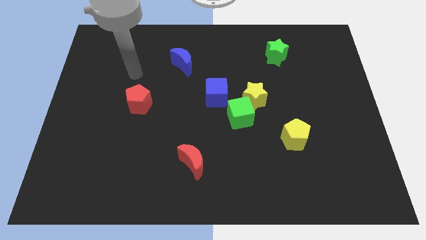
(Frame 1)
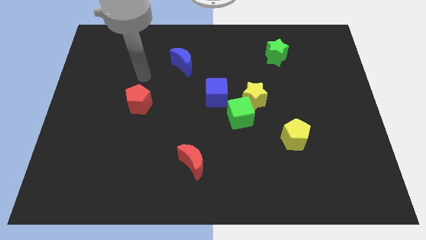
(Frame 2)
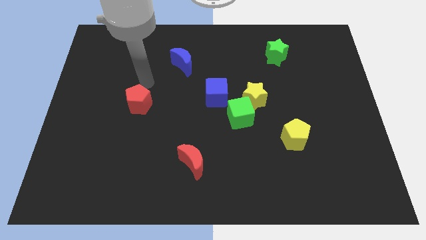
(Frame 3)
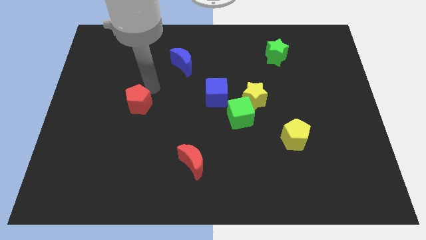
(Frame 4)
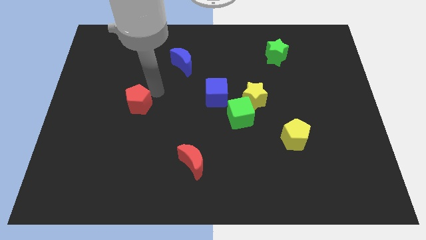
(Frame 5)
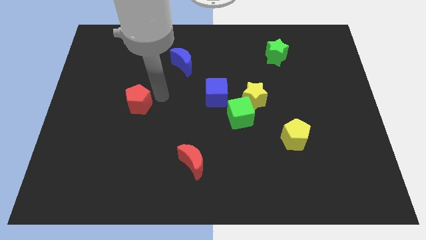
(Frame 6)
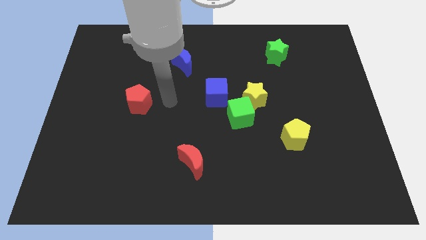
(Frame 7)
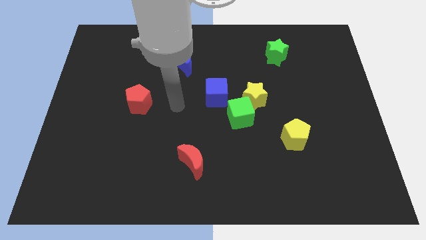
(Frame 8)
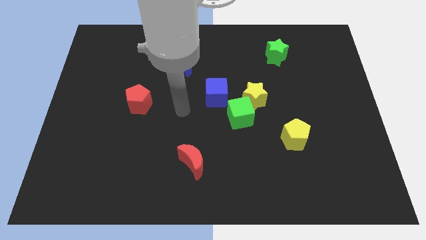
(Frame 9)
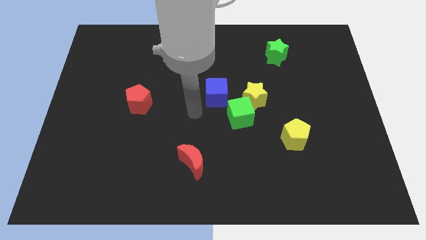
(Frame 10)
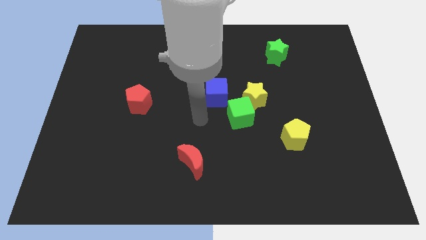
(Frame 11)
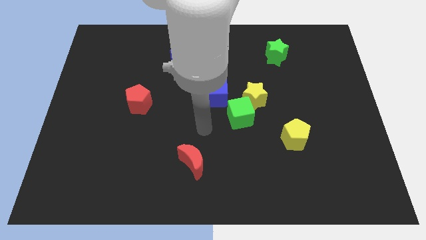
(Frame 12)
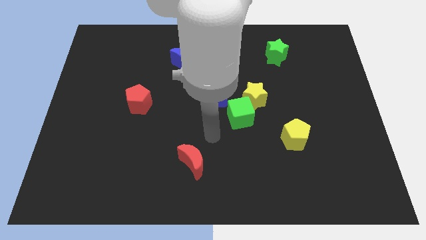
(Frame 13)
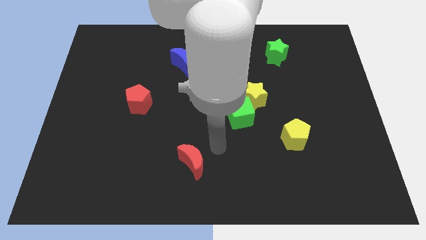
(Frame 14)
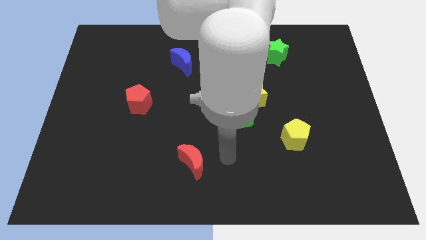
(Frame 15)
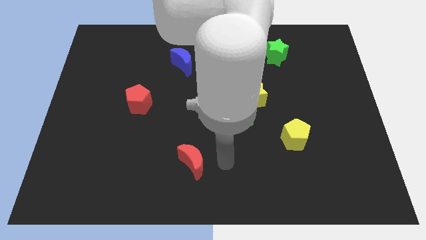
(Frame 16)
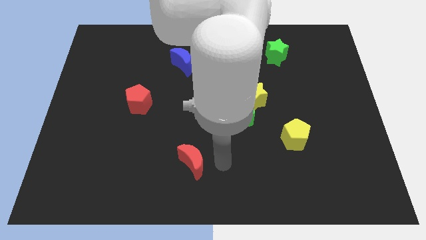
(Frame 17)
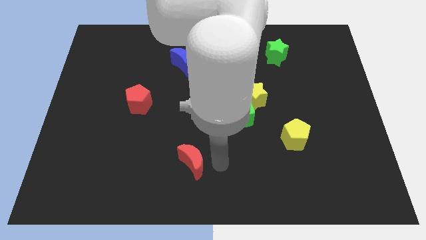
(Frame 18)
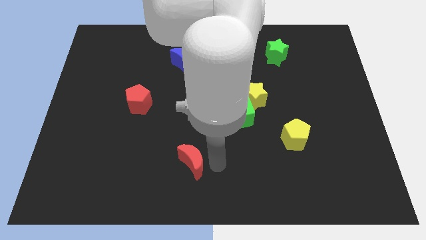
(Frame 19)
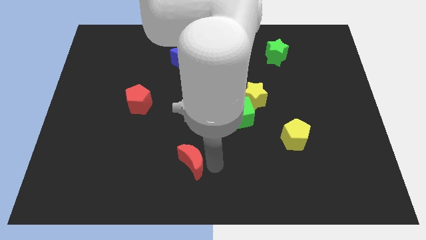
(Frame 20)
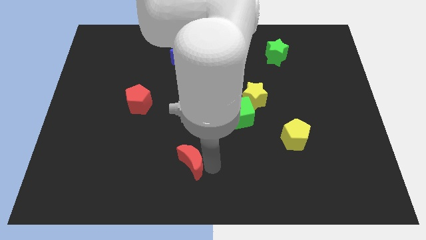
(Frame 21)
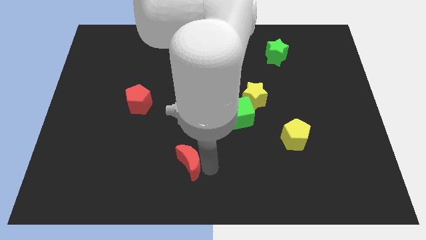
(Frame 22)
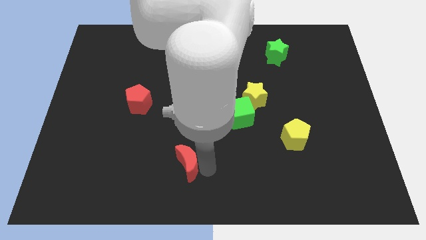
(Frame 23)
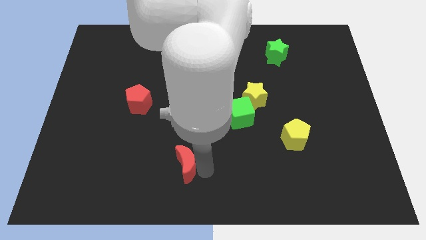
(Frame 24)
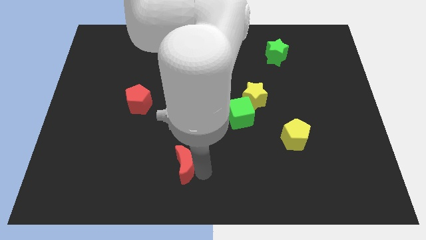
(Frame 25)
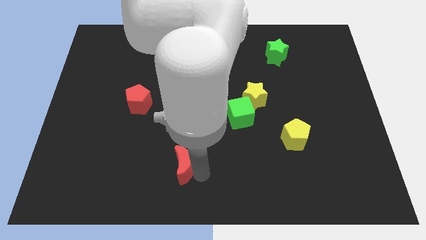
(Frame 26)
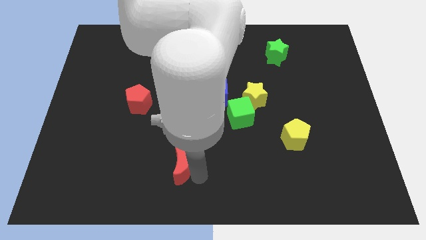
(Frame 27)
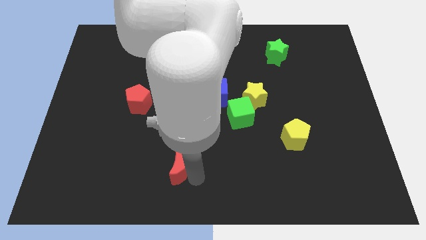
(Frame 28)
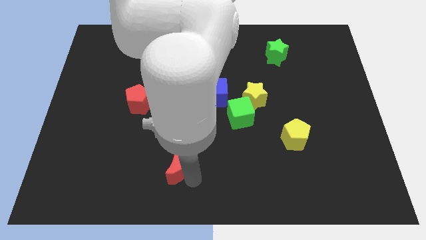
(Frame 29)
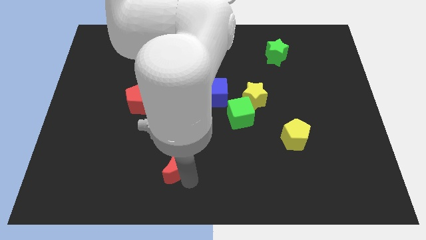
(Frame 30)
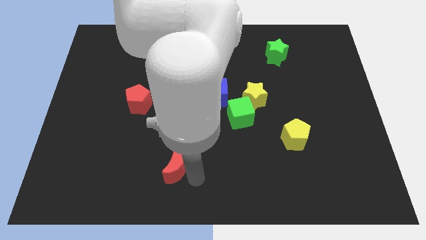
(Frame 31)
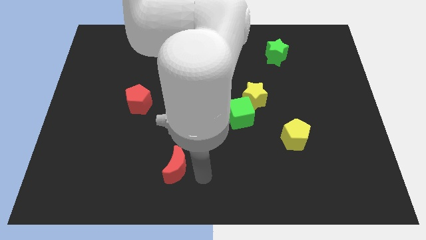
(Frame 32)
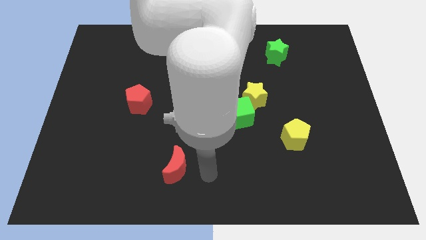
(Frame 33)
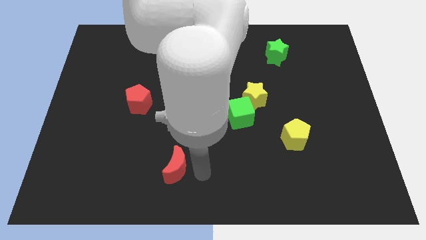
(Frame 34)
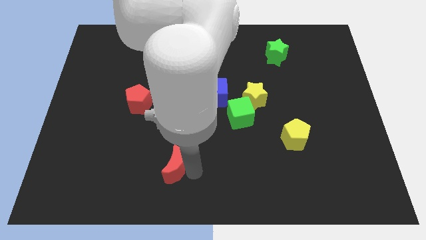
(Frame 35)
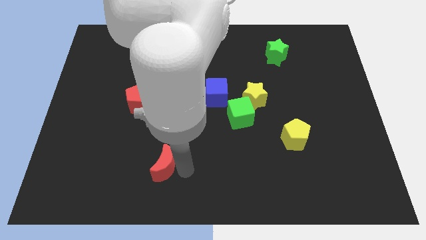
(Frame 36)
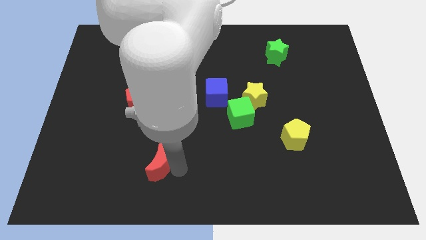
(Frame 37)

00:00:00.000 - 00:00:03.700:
slightly push the red moon to the left

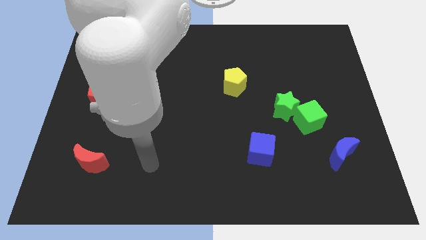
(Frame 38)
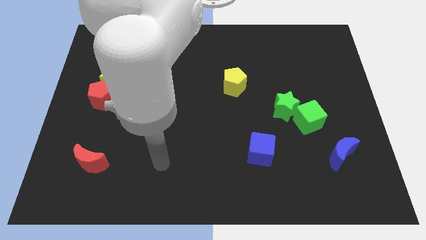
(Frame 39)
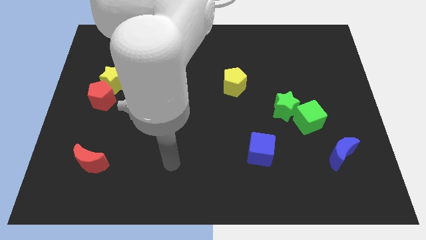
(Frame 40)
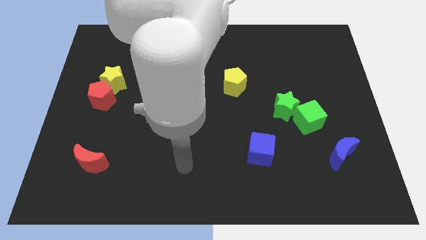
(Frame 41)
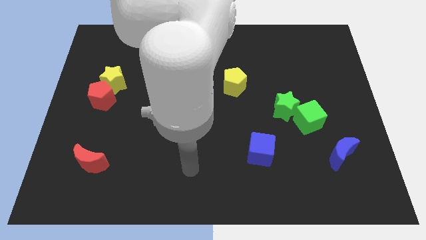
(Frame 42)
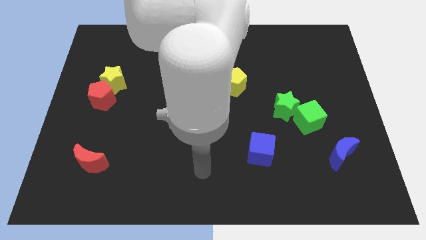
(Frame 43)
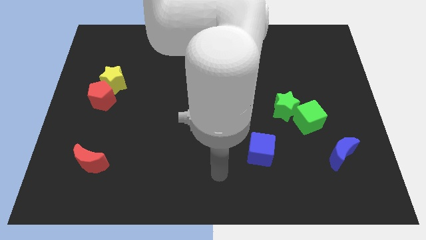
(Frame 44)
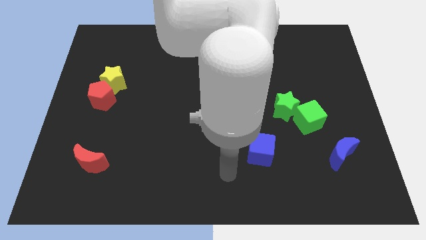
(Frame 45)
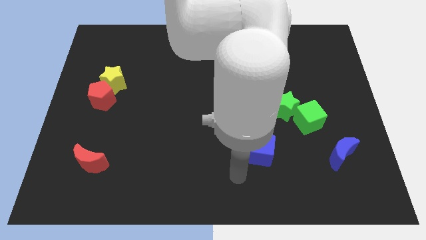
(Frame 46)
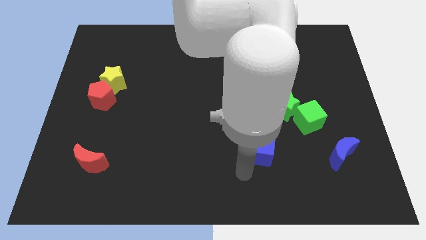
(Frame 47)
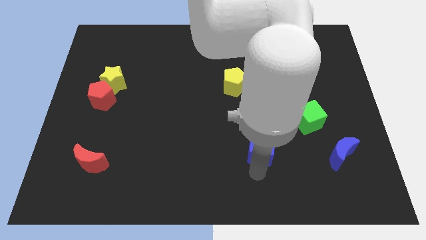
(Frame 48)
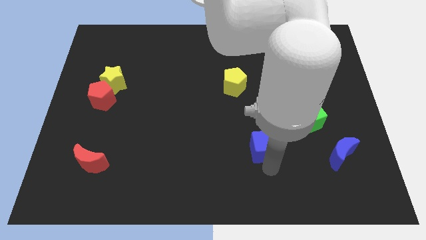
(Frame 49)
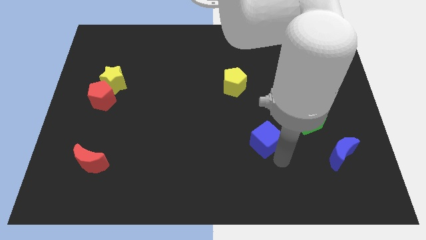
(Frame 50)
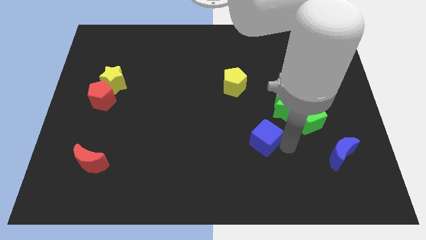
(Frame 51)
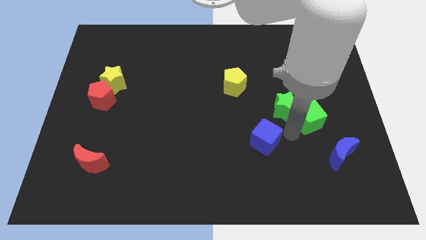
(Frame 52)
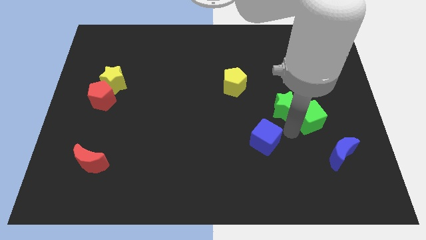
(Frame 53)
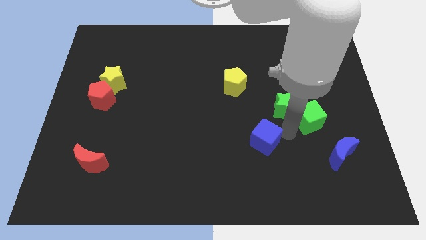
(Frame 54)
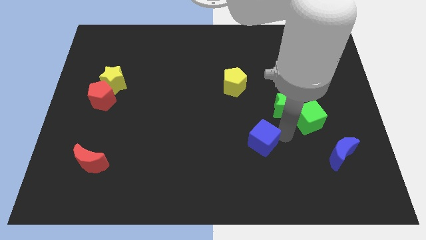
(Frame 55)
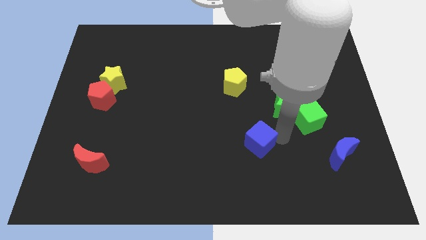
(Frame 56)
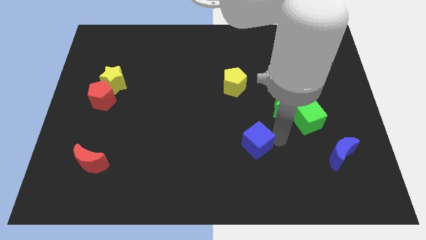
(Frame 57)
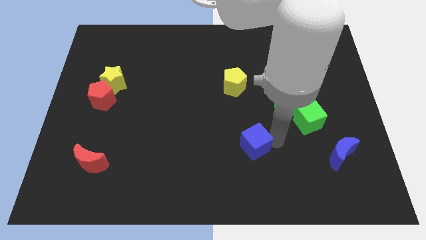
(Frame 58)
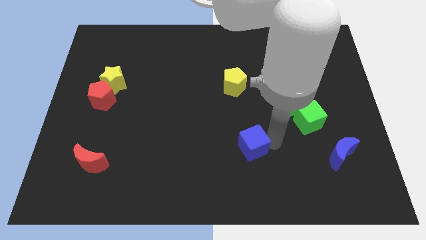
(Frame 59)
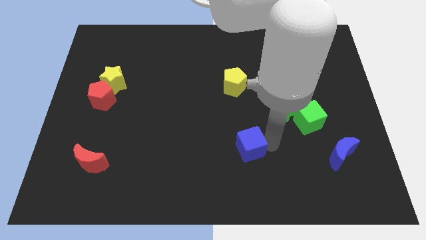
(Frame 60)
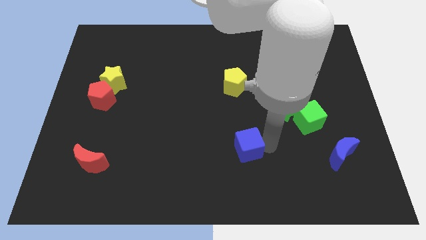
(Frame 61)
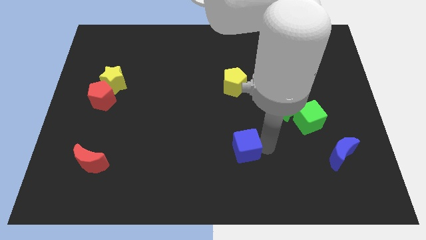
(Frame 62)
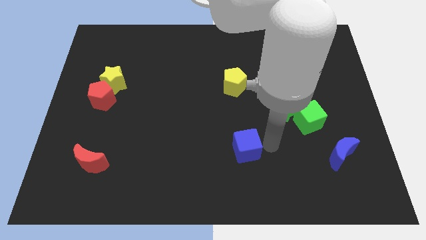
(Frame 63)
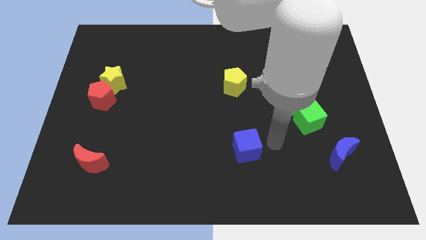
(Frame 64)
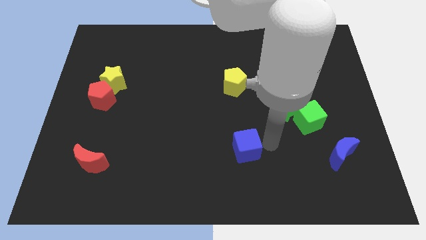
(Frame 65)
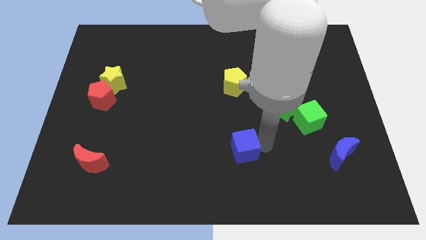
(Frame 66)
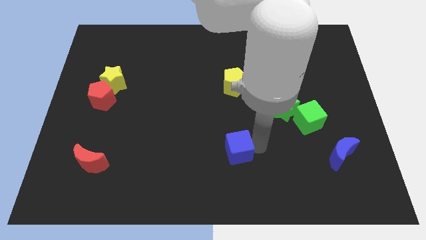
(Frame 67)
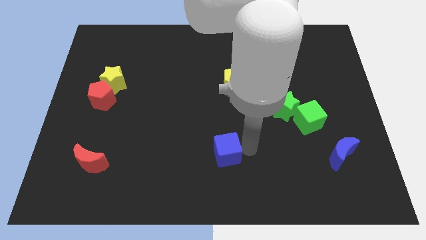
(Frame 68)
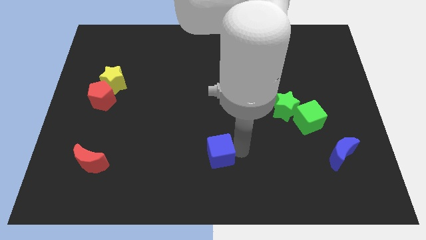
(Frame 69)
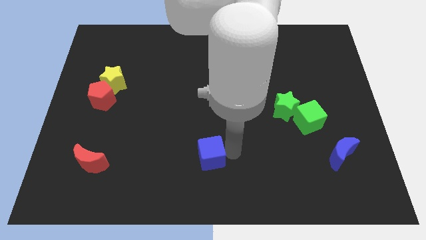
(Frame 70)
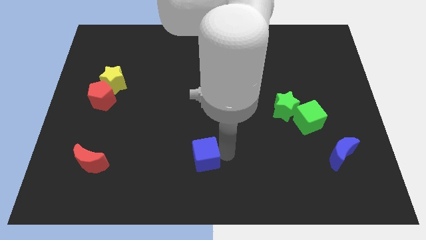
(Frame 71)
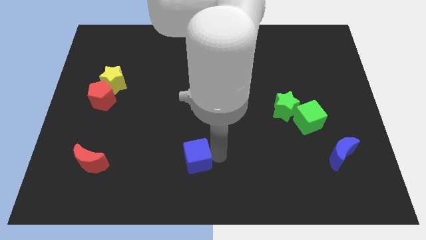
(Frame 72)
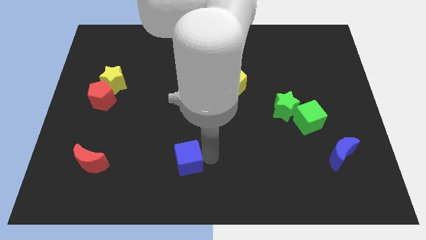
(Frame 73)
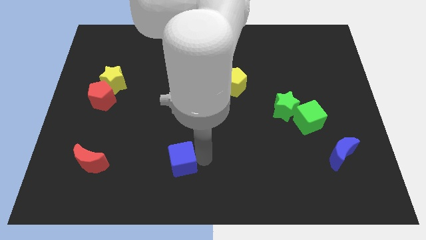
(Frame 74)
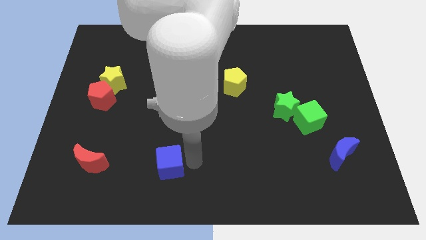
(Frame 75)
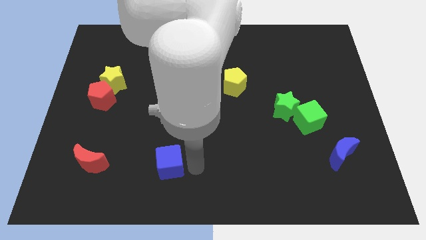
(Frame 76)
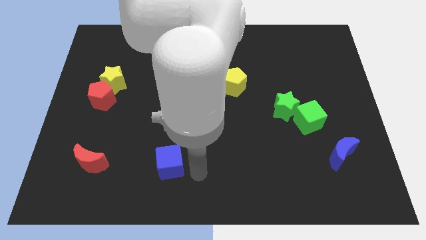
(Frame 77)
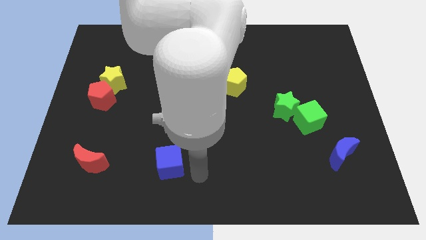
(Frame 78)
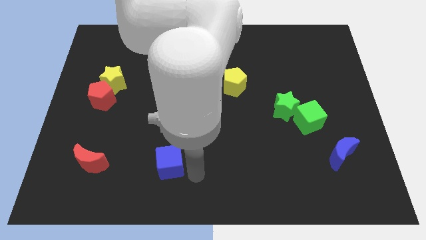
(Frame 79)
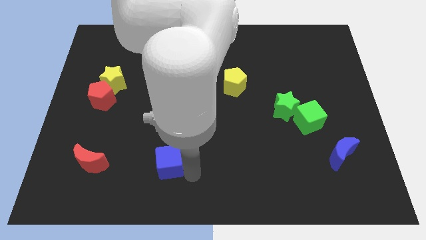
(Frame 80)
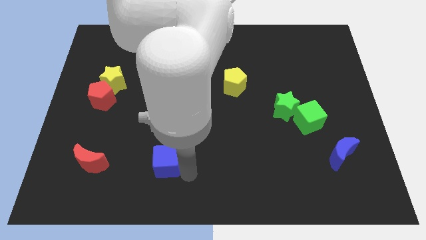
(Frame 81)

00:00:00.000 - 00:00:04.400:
push the blue cube to the left
